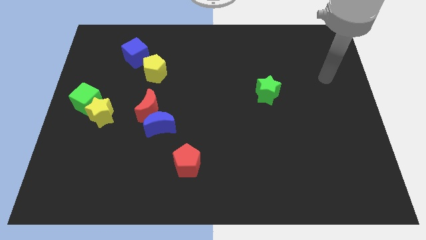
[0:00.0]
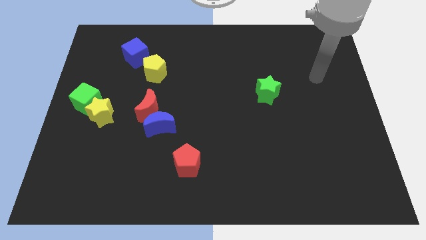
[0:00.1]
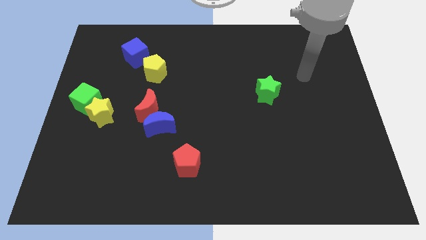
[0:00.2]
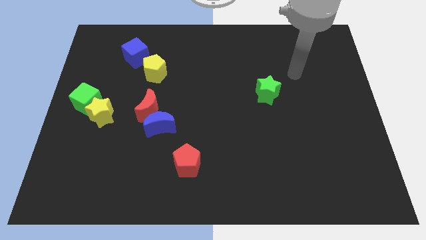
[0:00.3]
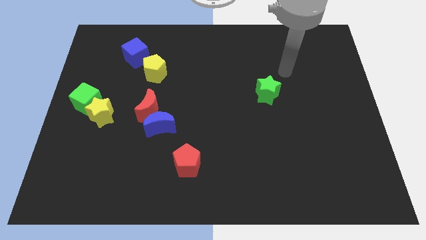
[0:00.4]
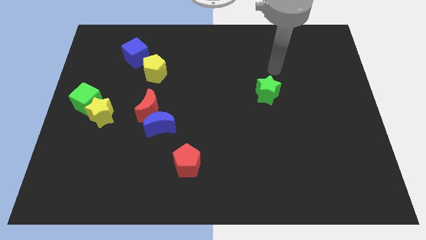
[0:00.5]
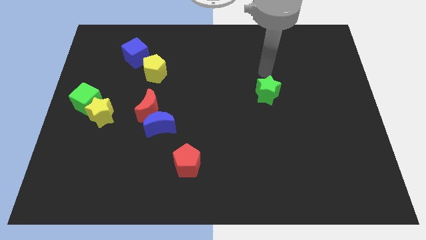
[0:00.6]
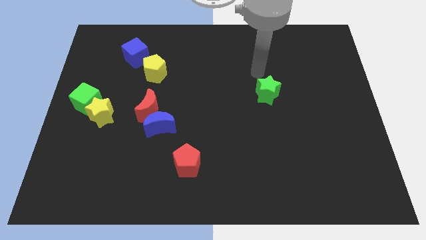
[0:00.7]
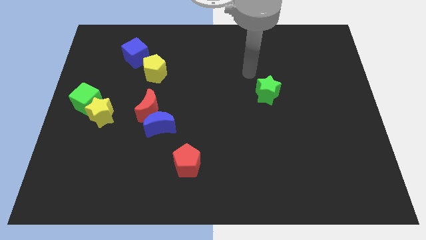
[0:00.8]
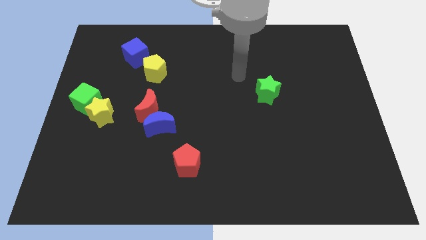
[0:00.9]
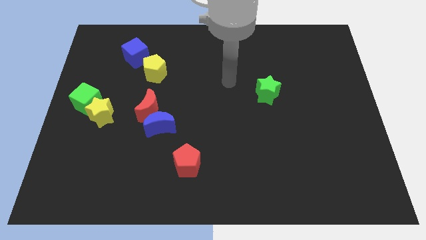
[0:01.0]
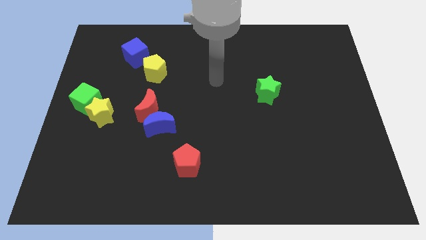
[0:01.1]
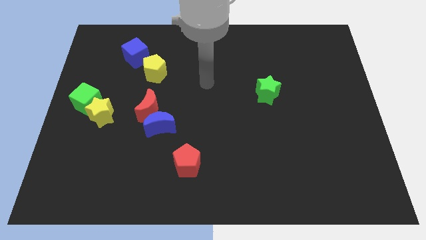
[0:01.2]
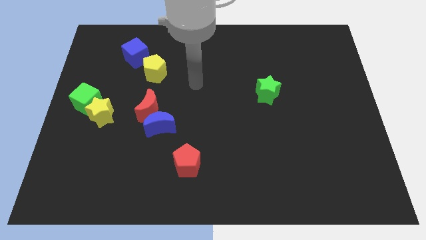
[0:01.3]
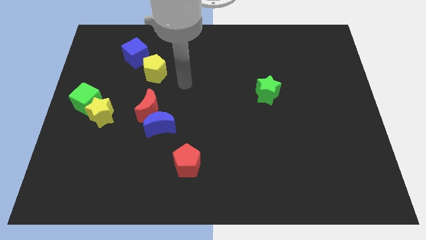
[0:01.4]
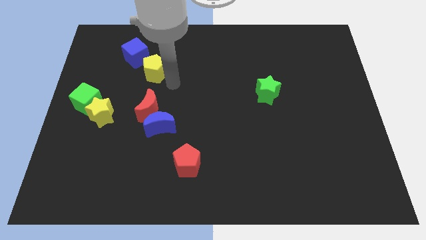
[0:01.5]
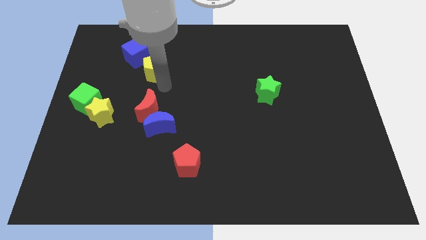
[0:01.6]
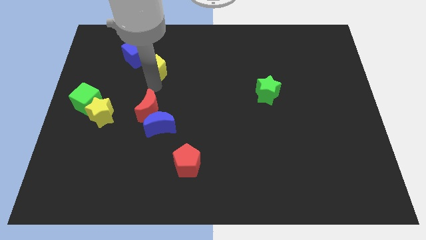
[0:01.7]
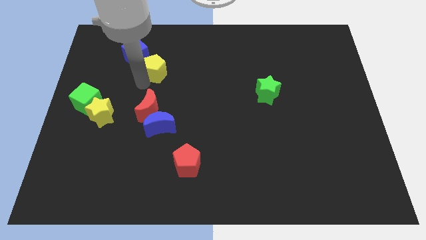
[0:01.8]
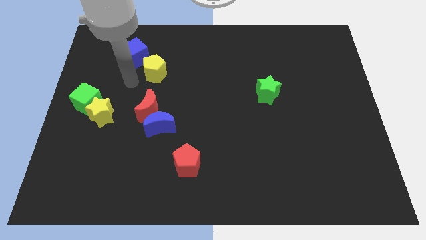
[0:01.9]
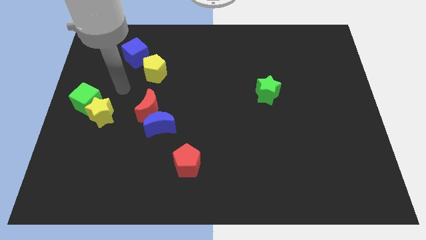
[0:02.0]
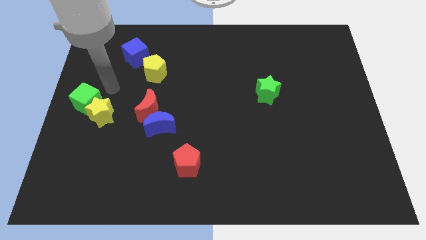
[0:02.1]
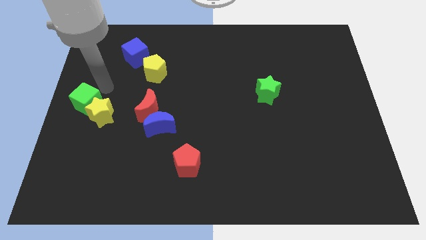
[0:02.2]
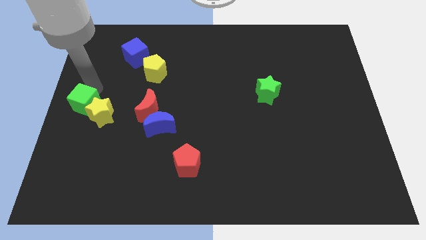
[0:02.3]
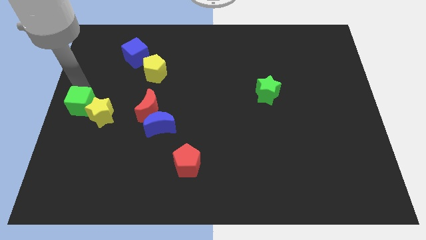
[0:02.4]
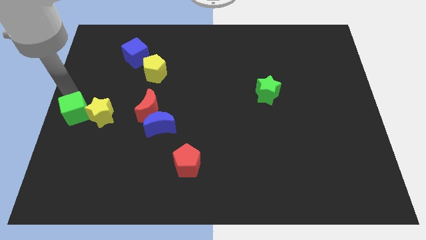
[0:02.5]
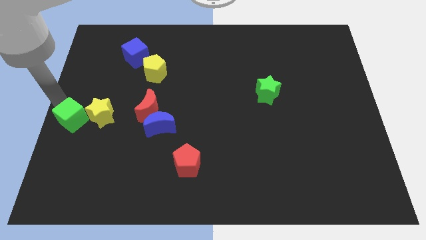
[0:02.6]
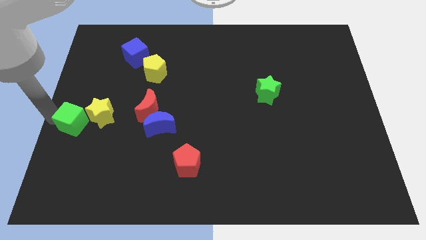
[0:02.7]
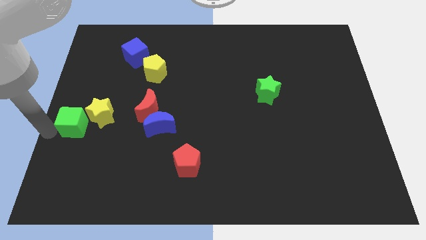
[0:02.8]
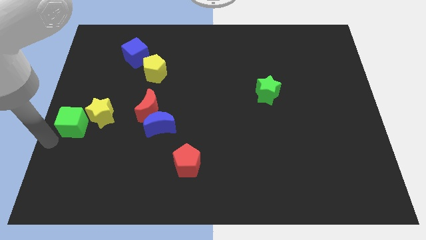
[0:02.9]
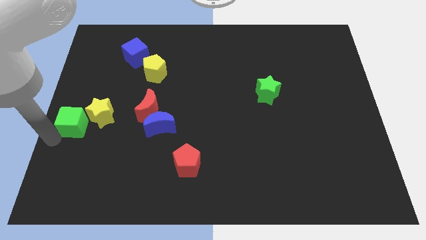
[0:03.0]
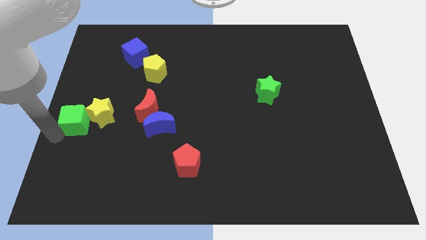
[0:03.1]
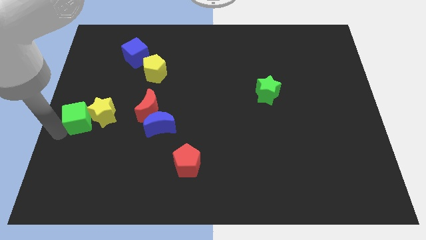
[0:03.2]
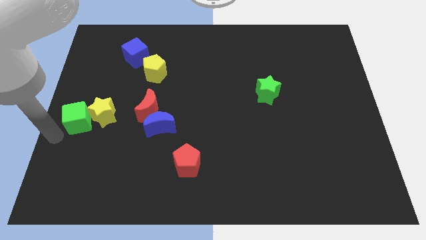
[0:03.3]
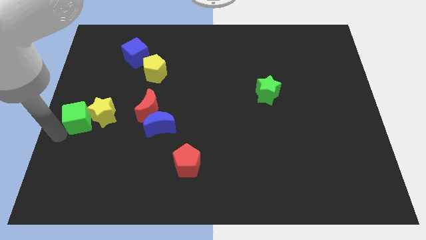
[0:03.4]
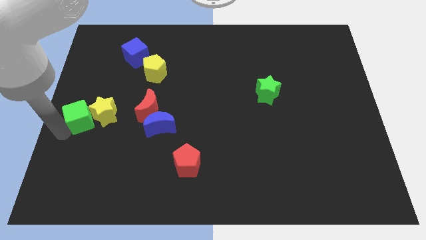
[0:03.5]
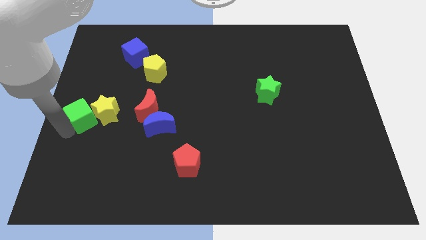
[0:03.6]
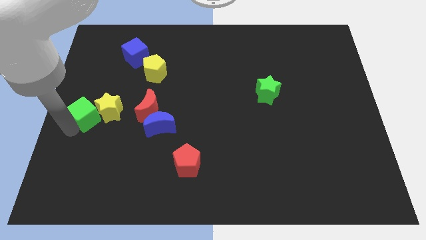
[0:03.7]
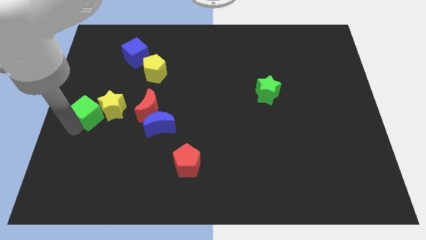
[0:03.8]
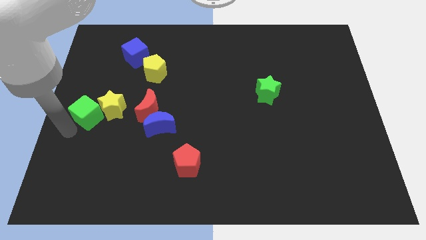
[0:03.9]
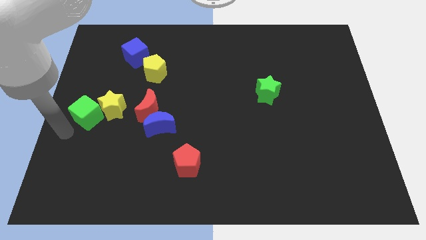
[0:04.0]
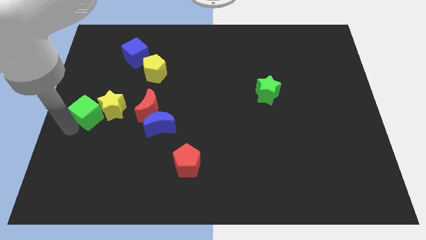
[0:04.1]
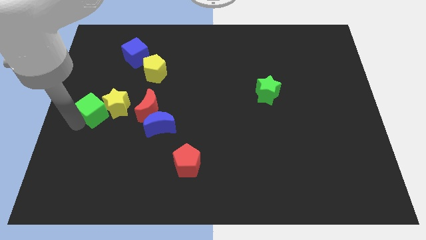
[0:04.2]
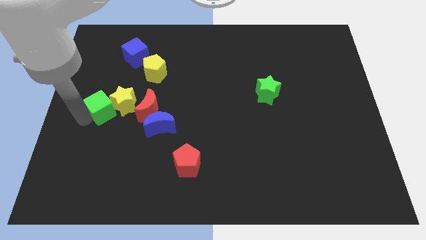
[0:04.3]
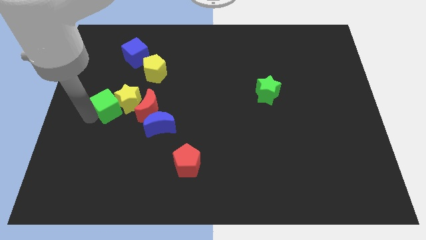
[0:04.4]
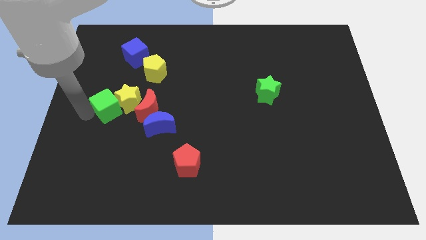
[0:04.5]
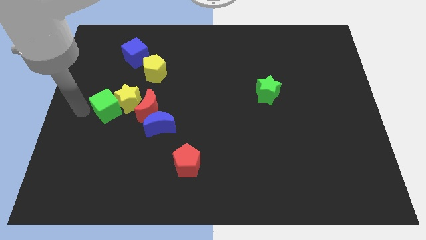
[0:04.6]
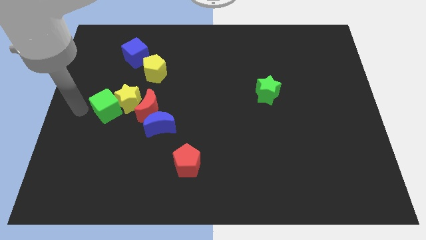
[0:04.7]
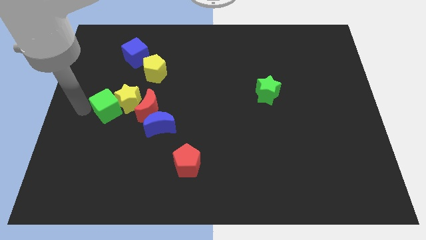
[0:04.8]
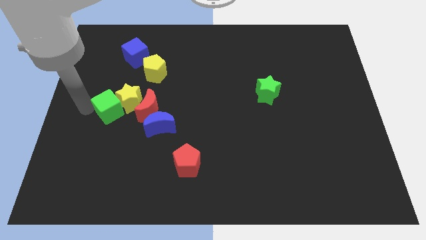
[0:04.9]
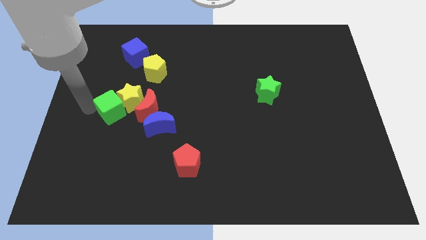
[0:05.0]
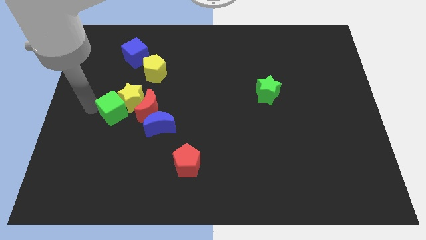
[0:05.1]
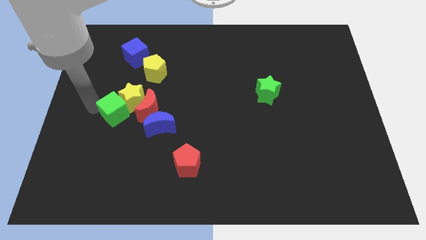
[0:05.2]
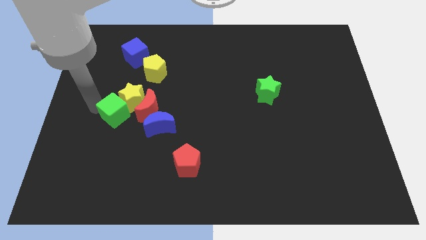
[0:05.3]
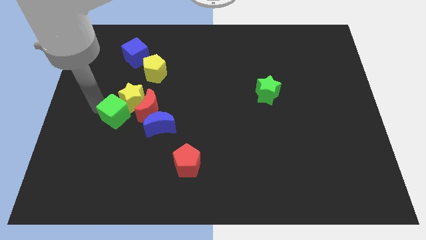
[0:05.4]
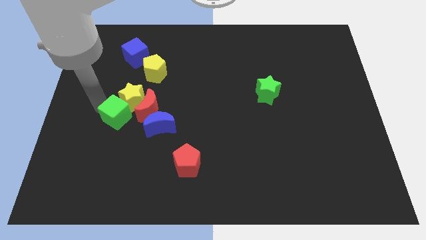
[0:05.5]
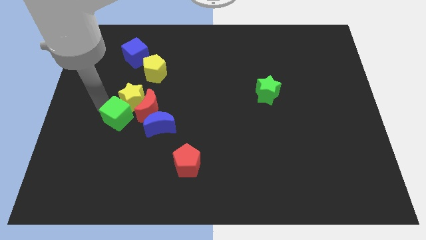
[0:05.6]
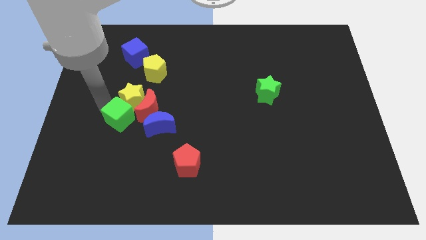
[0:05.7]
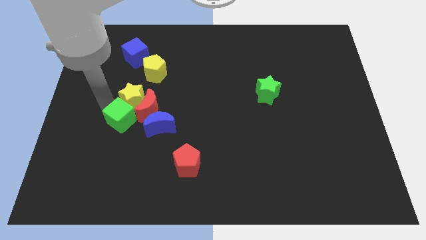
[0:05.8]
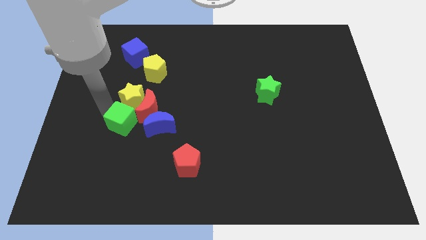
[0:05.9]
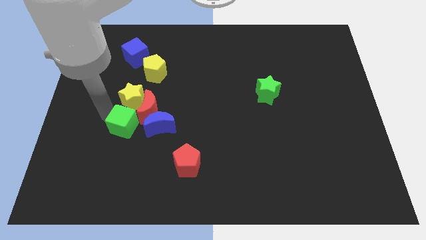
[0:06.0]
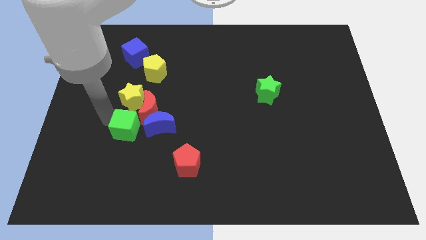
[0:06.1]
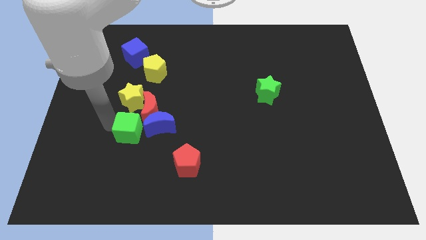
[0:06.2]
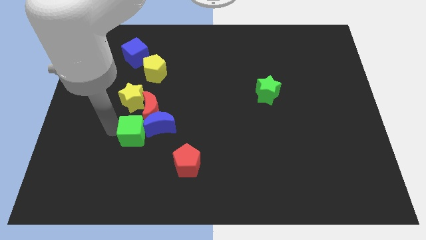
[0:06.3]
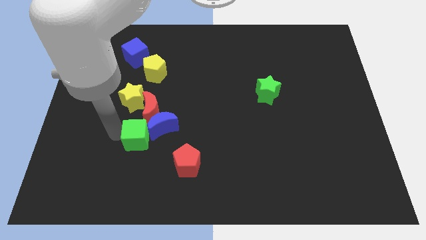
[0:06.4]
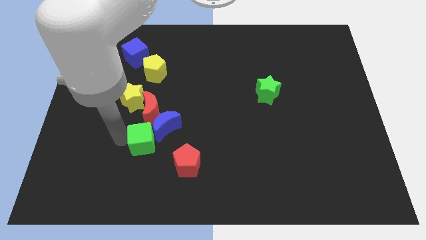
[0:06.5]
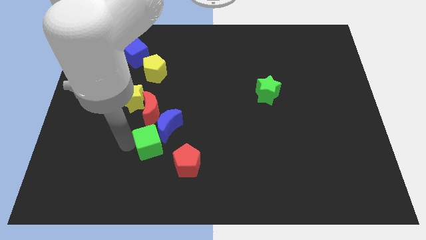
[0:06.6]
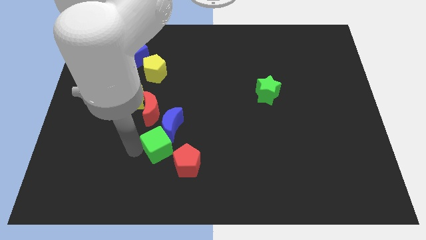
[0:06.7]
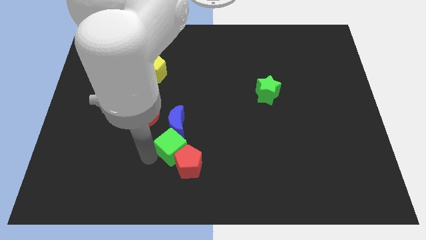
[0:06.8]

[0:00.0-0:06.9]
slide the green cube to the bottom right side of the red moon
